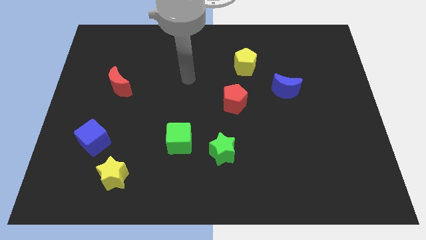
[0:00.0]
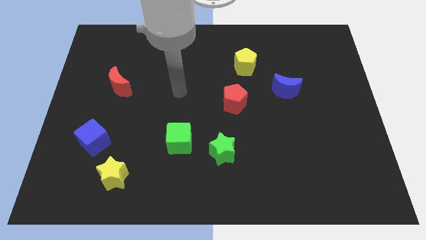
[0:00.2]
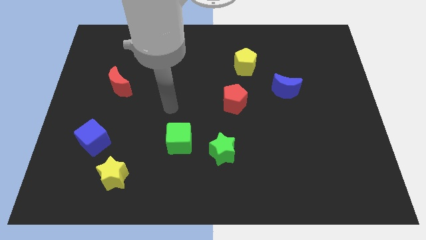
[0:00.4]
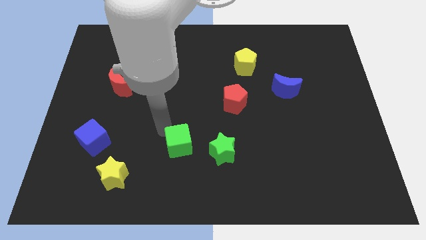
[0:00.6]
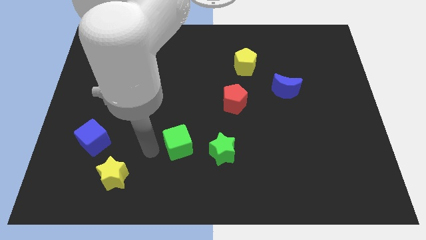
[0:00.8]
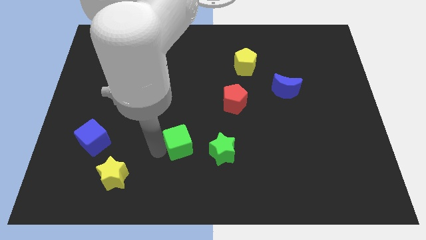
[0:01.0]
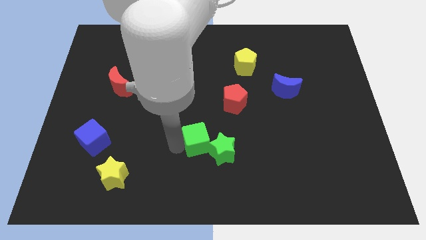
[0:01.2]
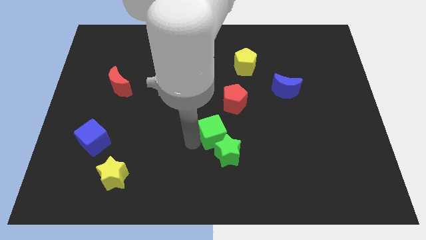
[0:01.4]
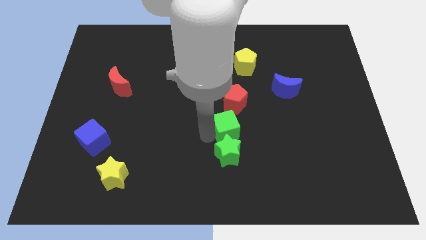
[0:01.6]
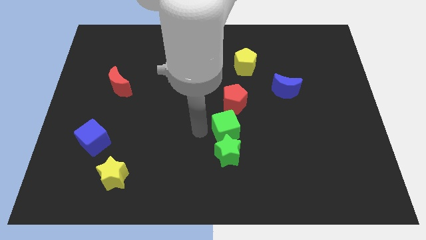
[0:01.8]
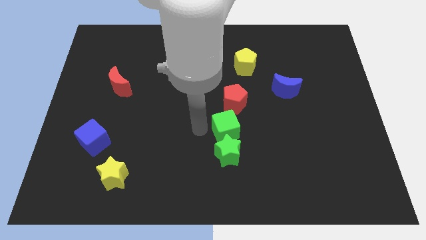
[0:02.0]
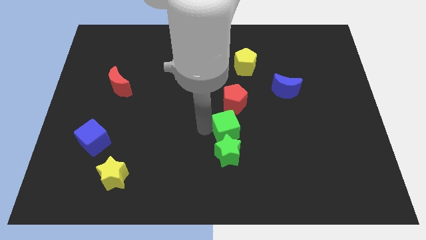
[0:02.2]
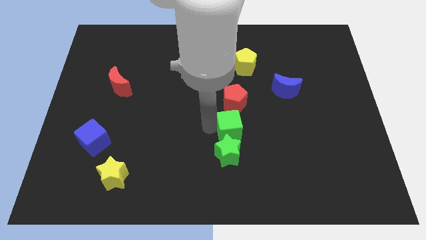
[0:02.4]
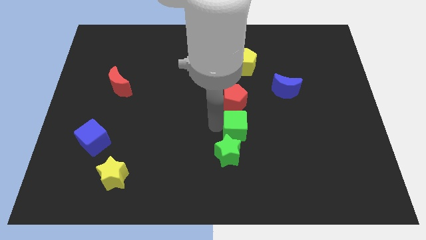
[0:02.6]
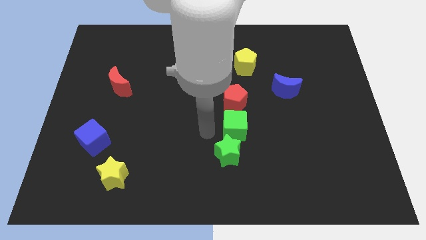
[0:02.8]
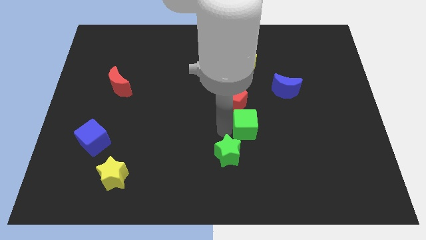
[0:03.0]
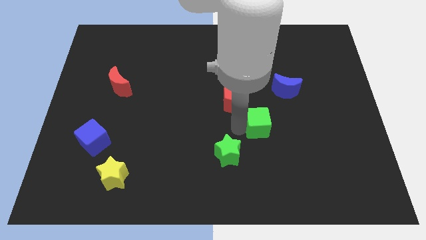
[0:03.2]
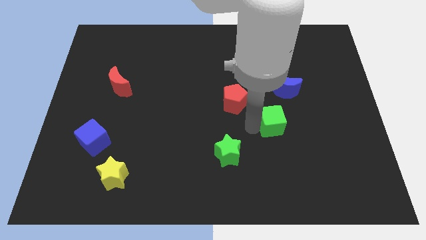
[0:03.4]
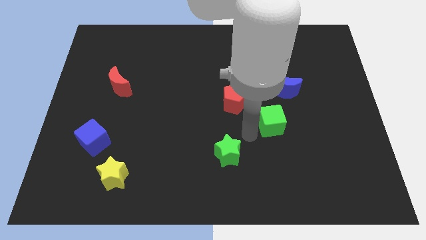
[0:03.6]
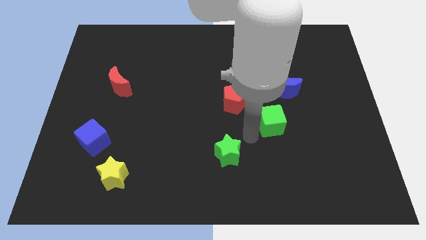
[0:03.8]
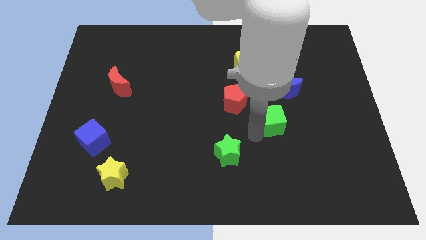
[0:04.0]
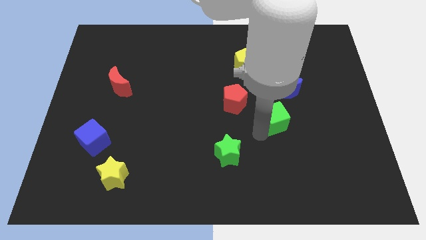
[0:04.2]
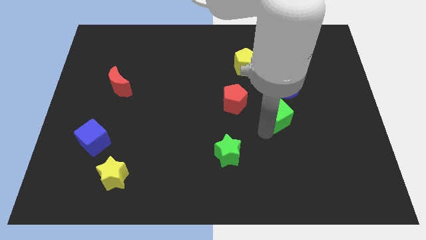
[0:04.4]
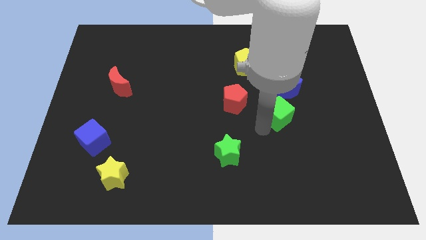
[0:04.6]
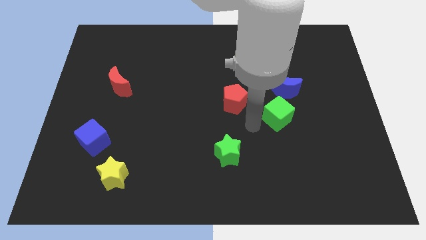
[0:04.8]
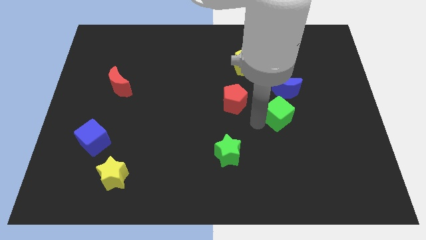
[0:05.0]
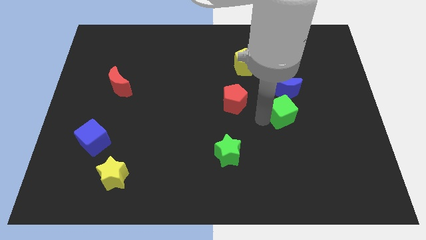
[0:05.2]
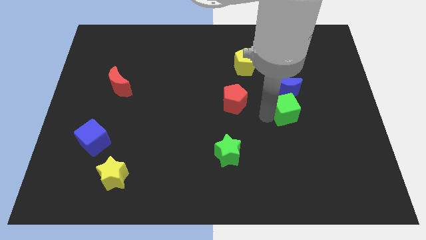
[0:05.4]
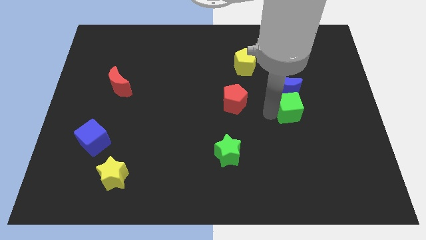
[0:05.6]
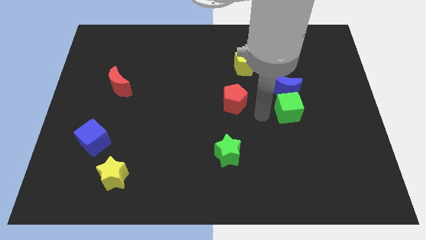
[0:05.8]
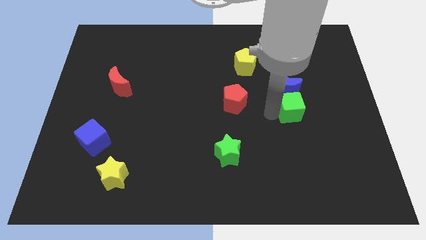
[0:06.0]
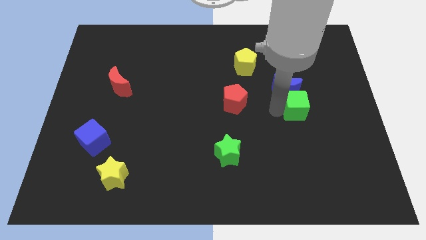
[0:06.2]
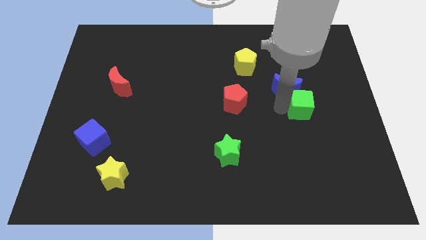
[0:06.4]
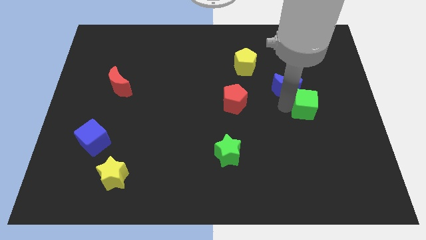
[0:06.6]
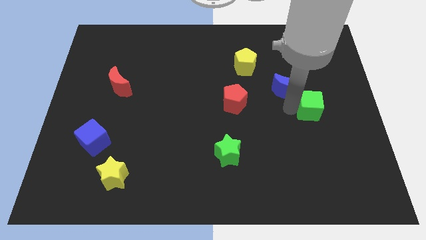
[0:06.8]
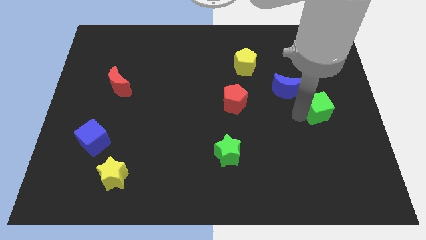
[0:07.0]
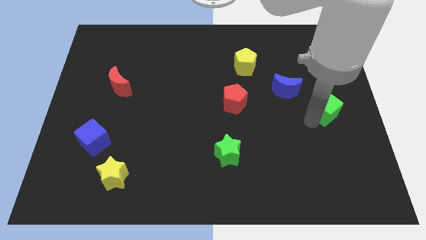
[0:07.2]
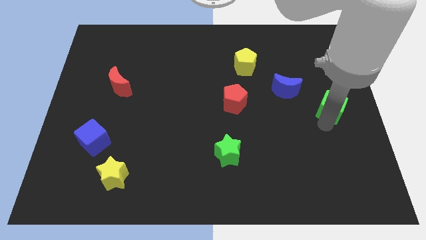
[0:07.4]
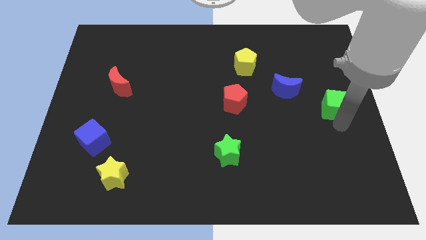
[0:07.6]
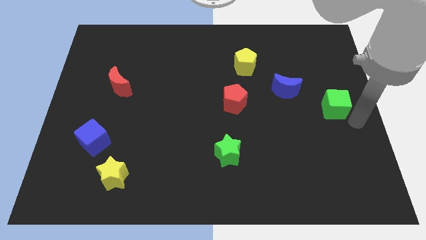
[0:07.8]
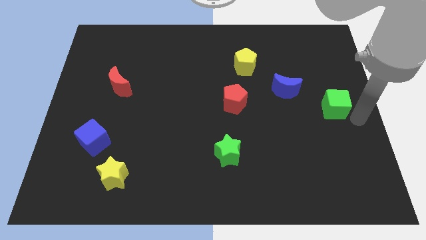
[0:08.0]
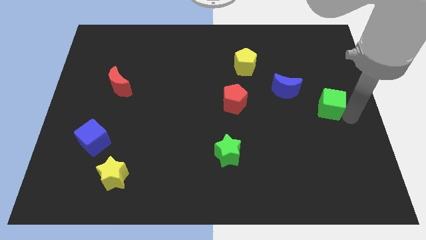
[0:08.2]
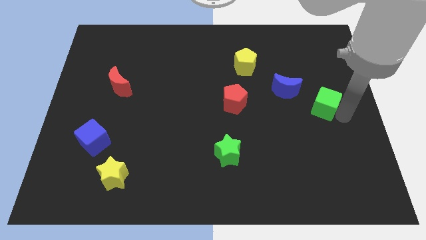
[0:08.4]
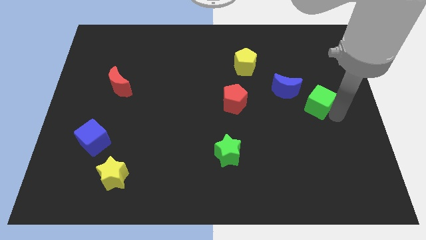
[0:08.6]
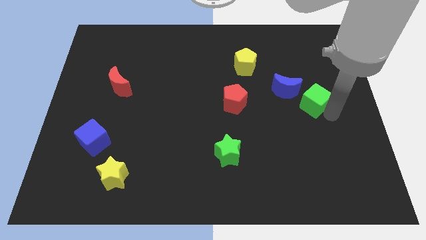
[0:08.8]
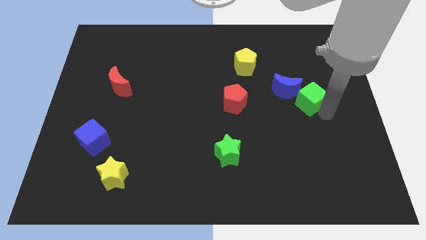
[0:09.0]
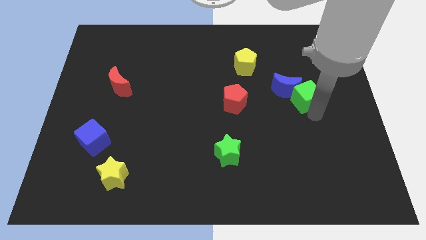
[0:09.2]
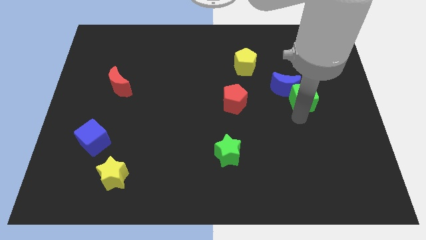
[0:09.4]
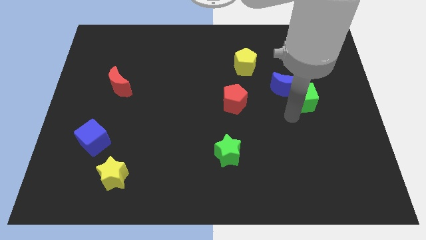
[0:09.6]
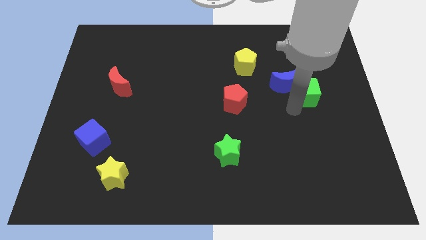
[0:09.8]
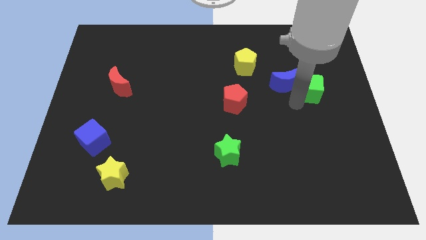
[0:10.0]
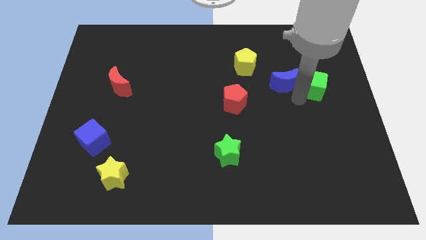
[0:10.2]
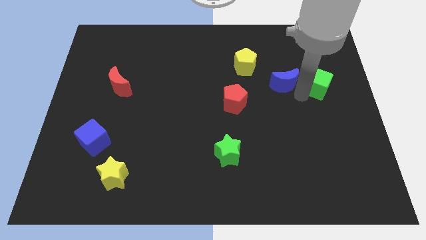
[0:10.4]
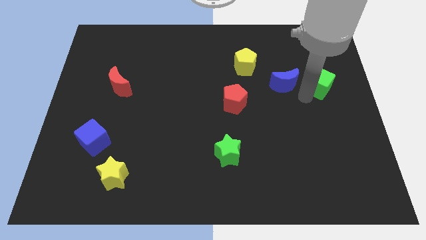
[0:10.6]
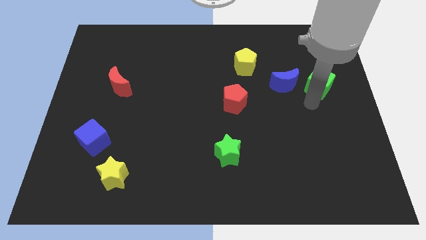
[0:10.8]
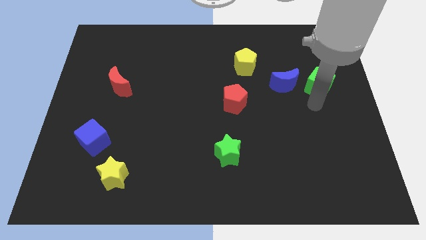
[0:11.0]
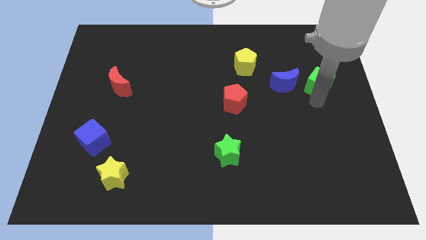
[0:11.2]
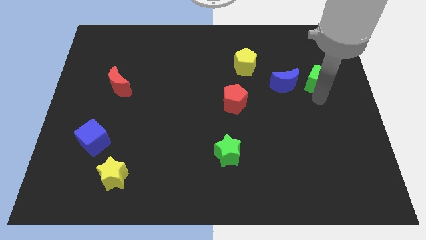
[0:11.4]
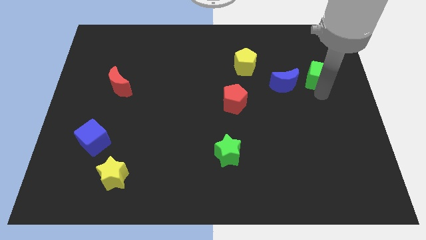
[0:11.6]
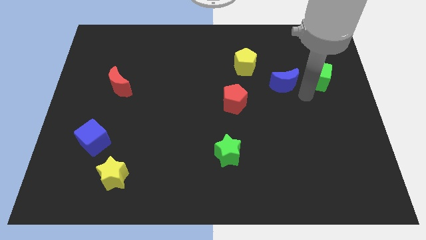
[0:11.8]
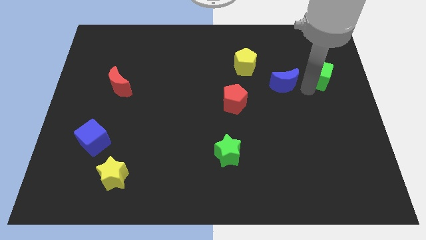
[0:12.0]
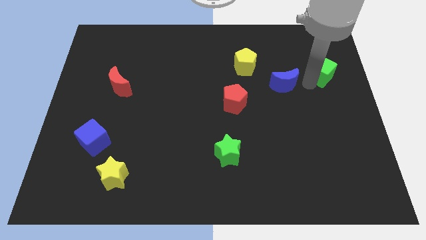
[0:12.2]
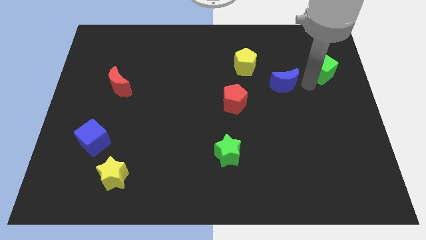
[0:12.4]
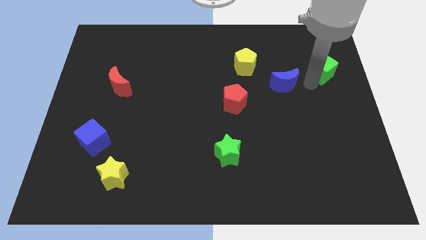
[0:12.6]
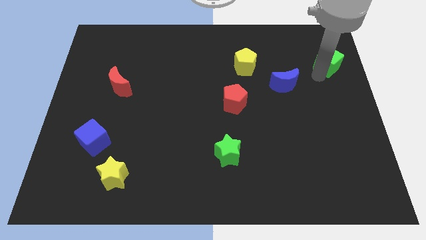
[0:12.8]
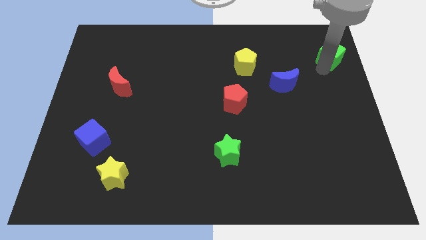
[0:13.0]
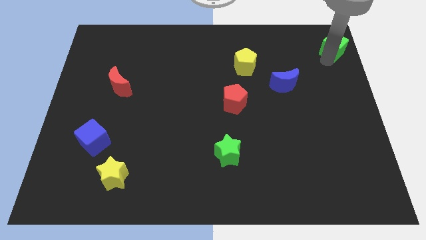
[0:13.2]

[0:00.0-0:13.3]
move the green cube to the top right corner
